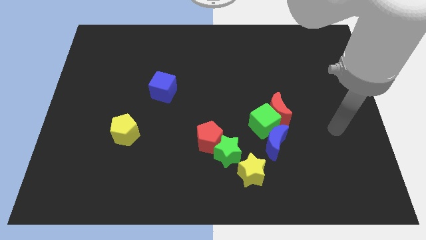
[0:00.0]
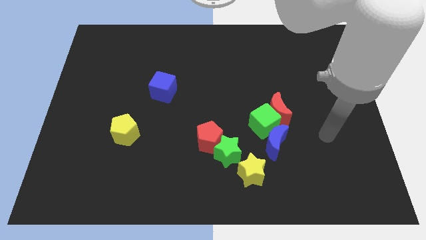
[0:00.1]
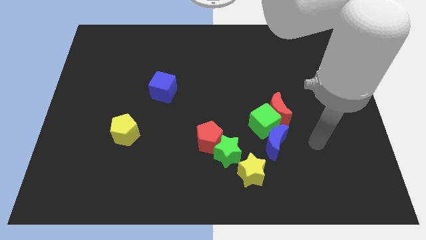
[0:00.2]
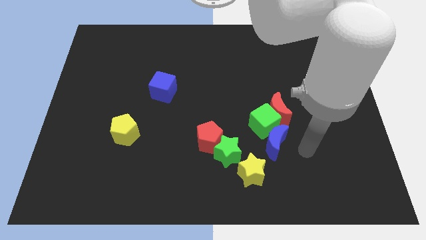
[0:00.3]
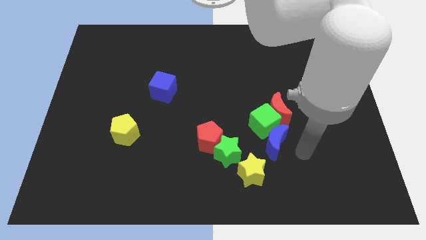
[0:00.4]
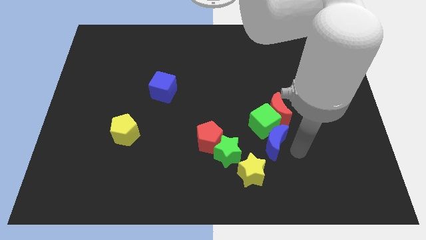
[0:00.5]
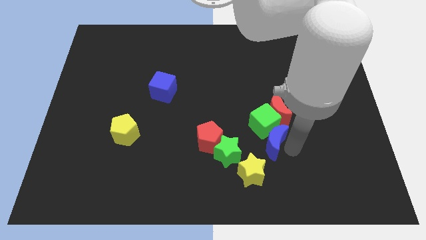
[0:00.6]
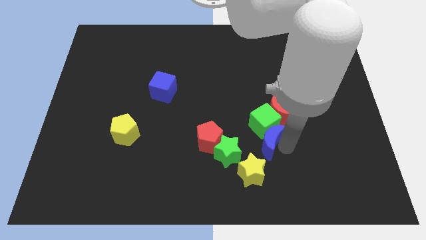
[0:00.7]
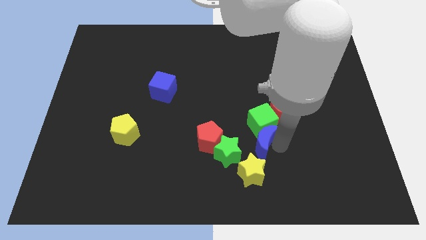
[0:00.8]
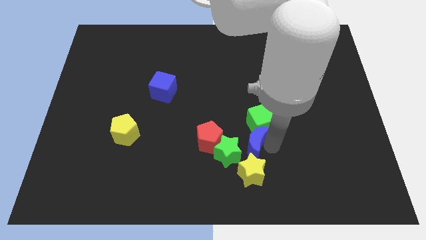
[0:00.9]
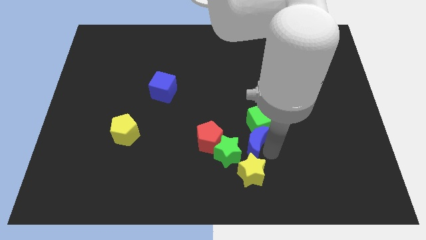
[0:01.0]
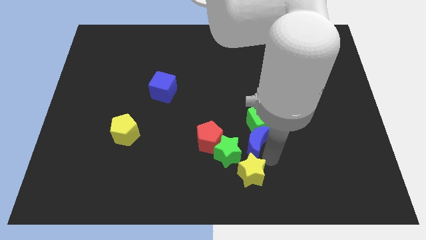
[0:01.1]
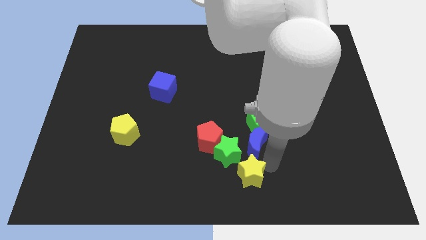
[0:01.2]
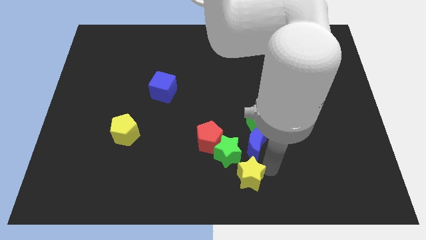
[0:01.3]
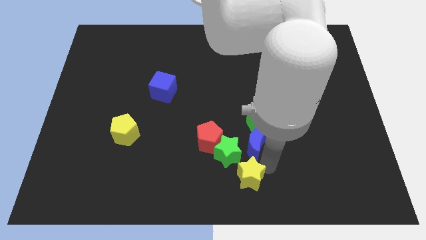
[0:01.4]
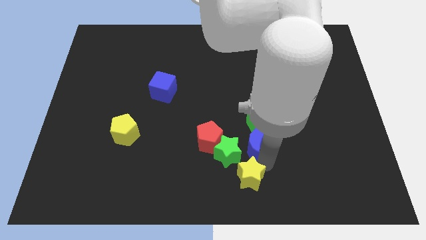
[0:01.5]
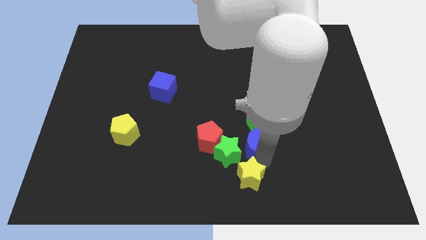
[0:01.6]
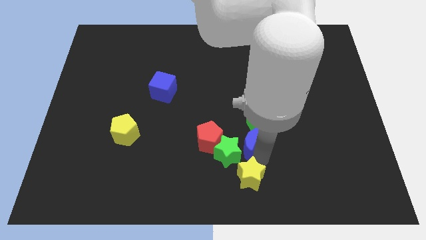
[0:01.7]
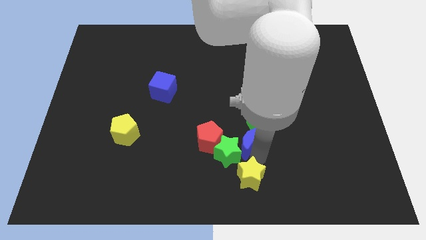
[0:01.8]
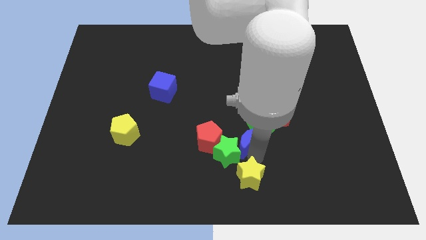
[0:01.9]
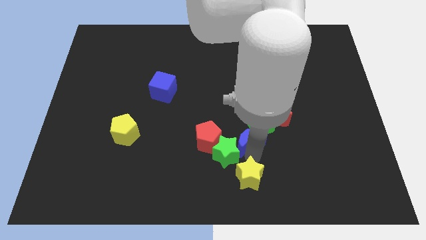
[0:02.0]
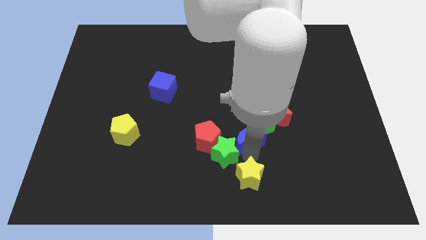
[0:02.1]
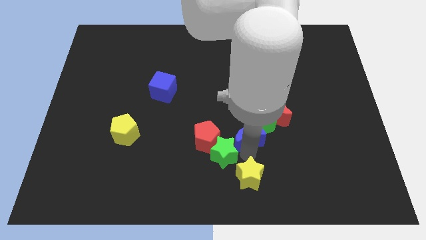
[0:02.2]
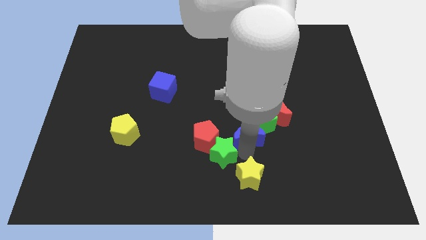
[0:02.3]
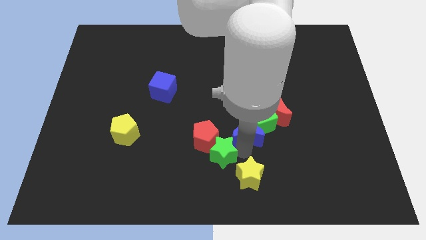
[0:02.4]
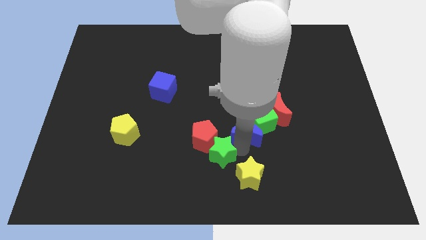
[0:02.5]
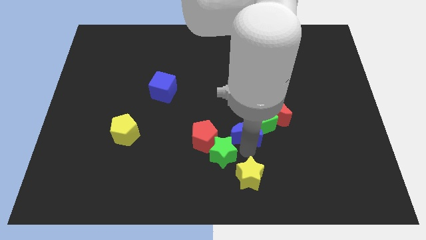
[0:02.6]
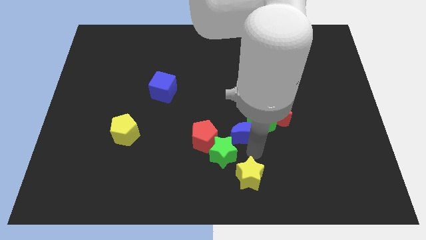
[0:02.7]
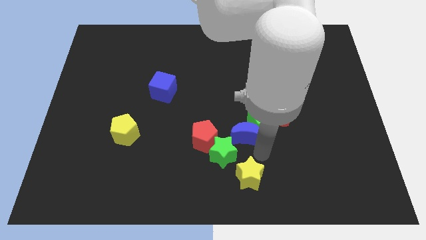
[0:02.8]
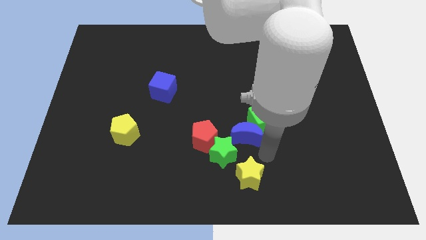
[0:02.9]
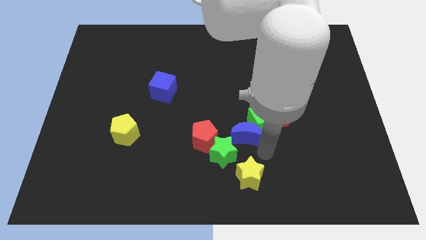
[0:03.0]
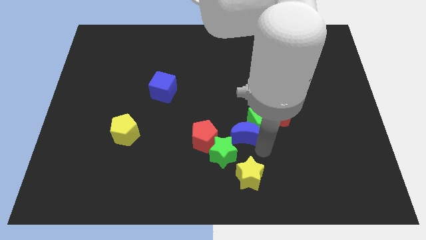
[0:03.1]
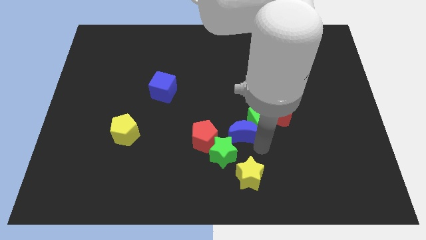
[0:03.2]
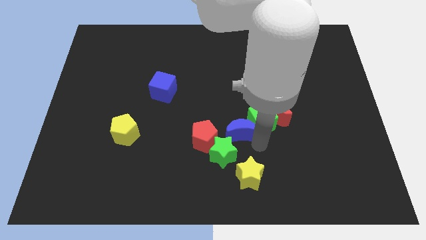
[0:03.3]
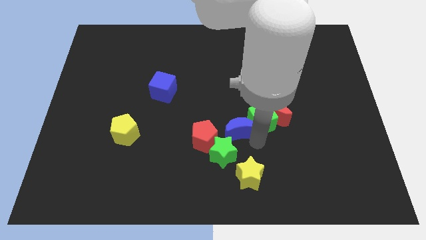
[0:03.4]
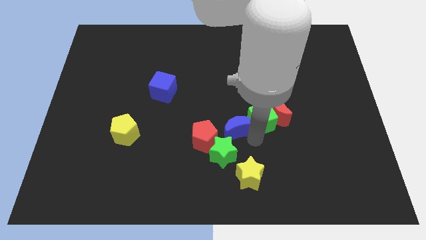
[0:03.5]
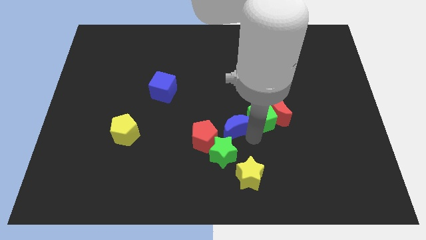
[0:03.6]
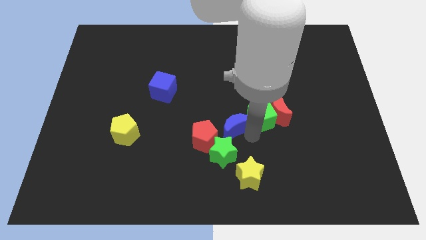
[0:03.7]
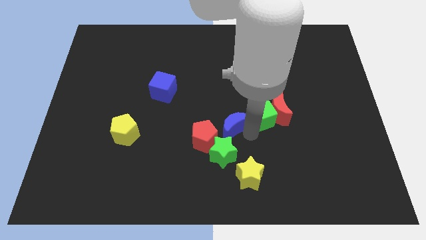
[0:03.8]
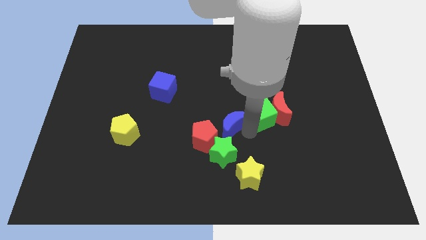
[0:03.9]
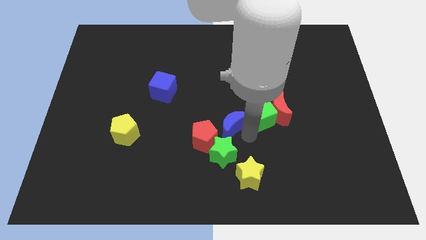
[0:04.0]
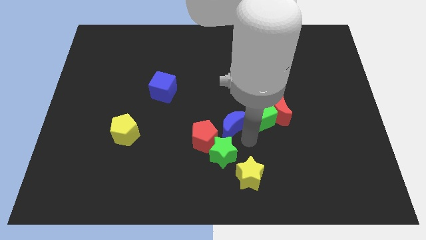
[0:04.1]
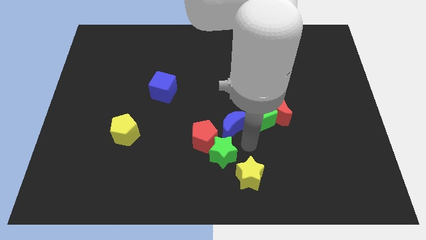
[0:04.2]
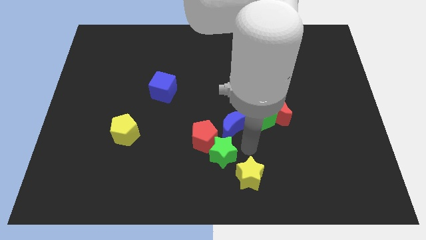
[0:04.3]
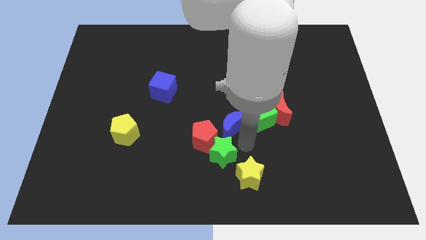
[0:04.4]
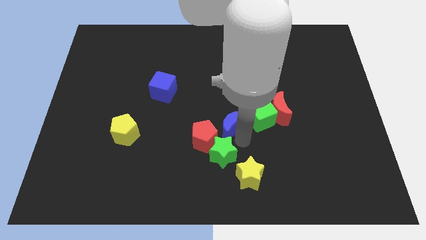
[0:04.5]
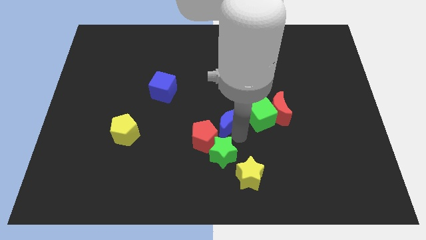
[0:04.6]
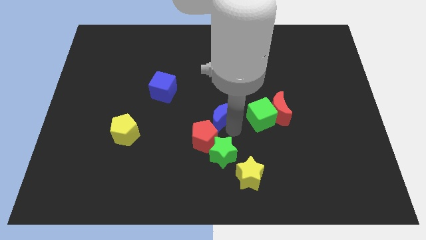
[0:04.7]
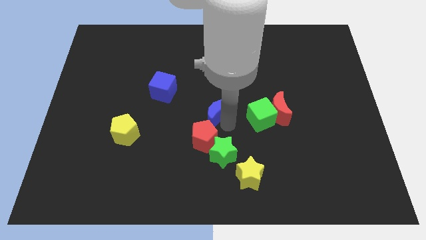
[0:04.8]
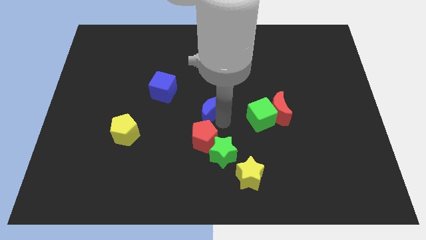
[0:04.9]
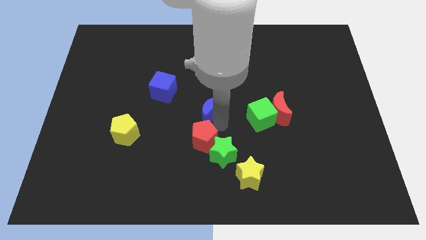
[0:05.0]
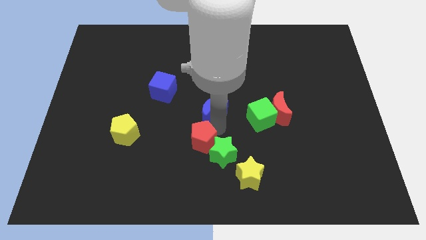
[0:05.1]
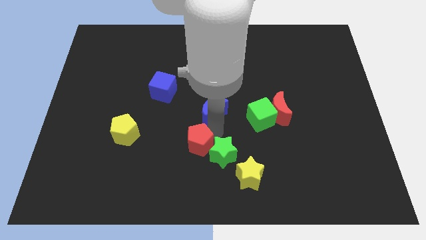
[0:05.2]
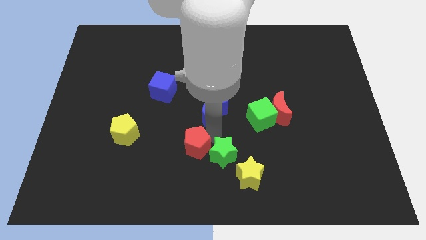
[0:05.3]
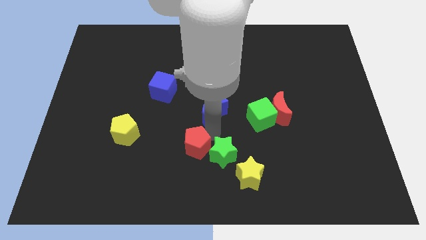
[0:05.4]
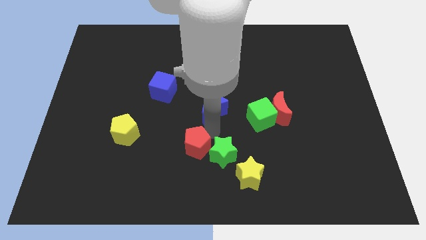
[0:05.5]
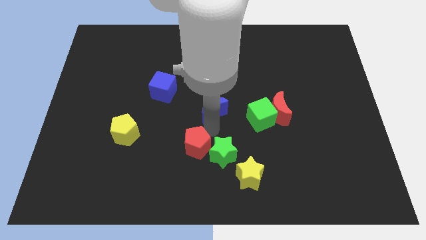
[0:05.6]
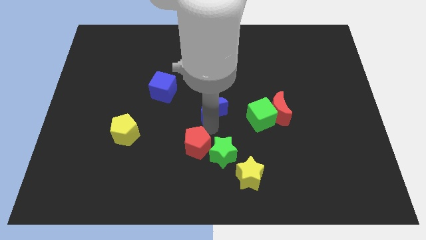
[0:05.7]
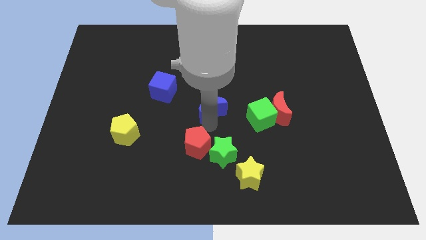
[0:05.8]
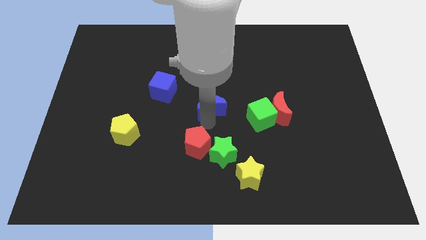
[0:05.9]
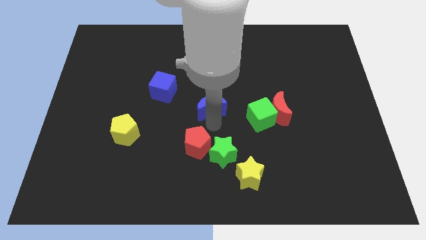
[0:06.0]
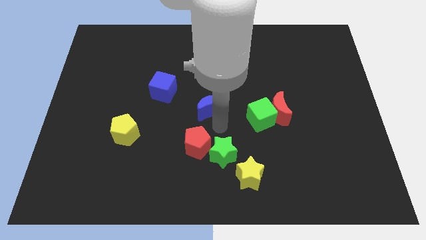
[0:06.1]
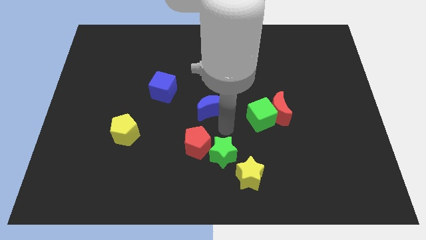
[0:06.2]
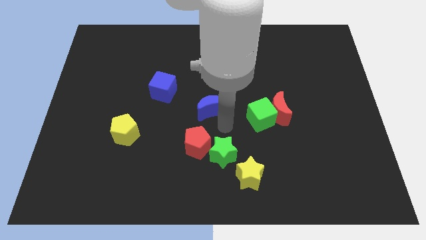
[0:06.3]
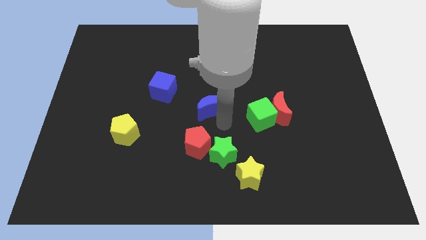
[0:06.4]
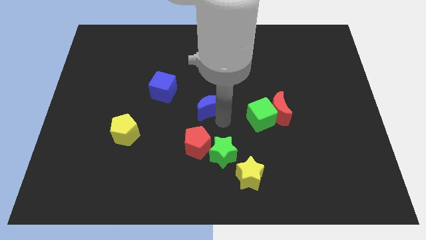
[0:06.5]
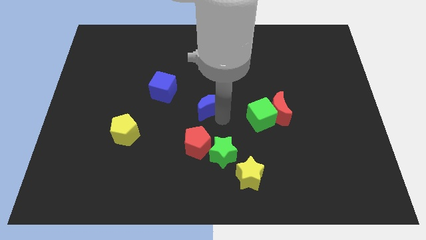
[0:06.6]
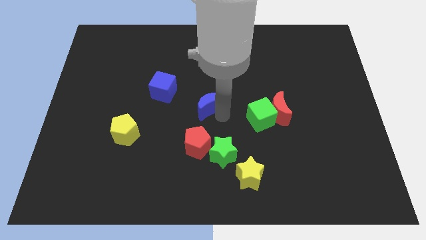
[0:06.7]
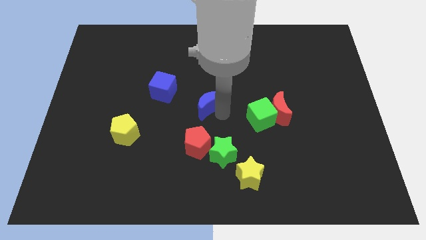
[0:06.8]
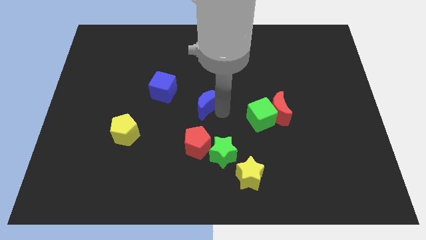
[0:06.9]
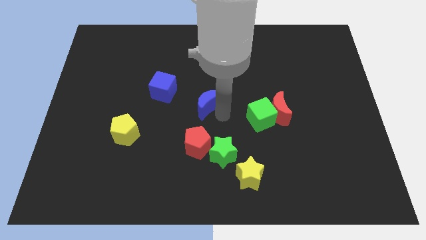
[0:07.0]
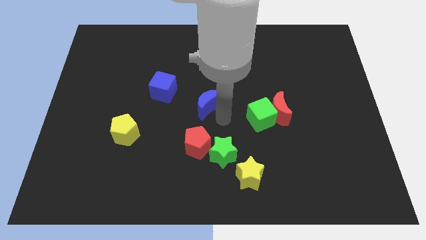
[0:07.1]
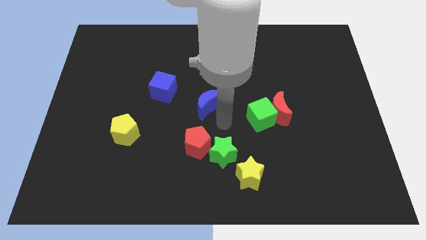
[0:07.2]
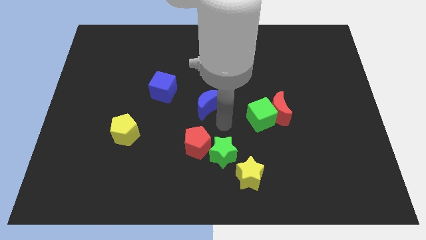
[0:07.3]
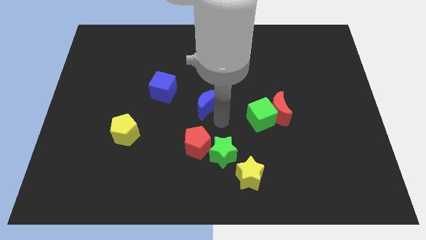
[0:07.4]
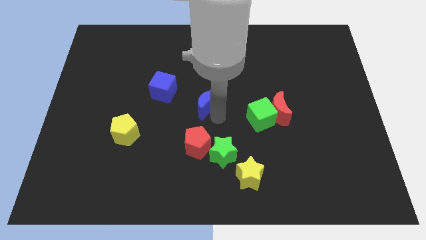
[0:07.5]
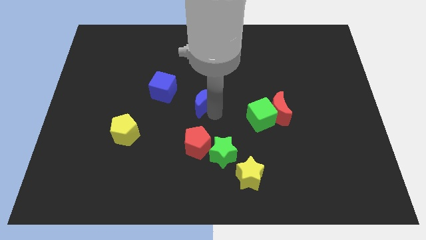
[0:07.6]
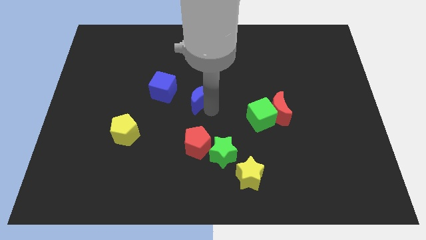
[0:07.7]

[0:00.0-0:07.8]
slide the blue moon diagonally up and to the left

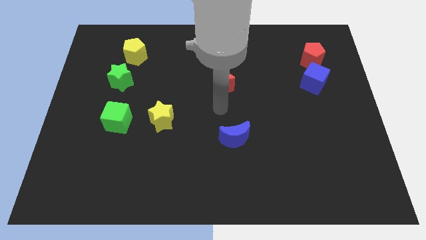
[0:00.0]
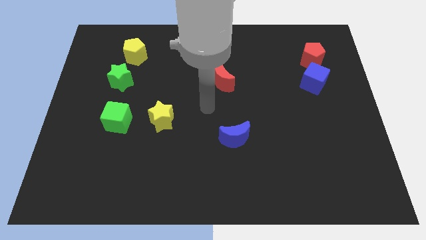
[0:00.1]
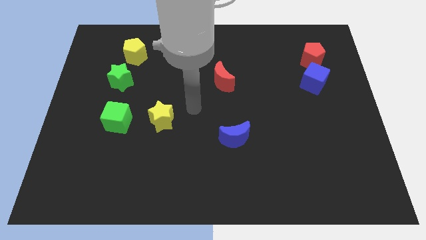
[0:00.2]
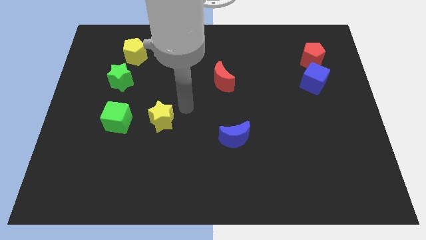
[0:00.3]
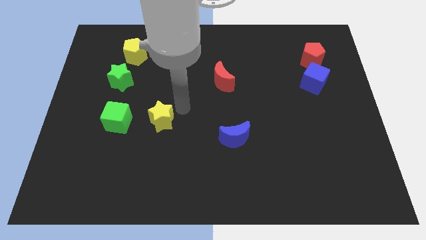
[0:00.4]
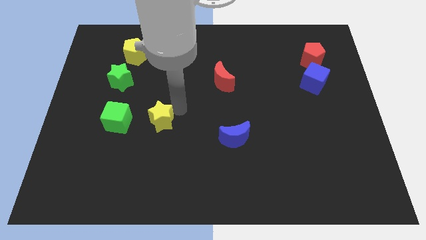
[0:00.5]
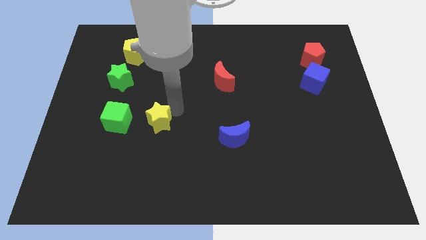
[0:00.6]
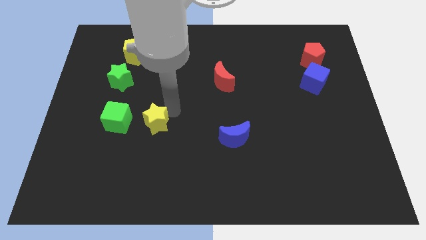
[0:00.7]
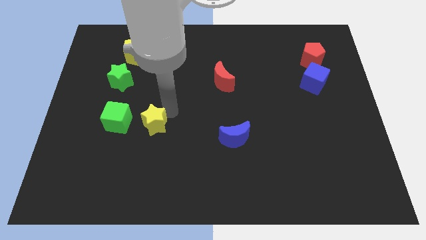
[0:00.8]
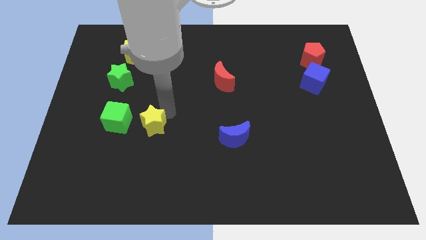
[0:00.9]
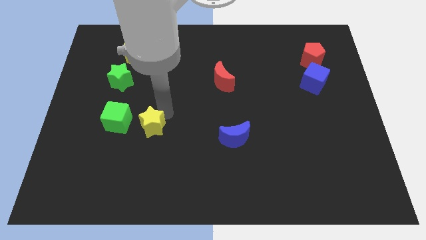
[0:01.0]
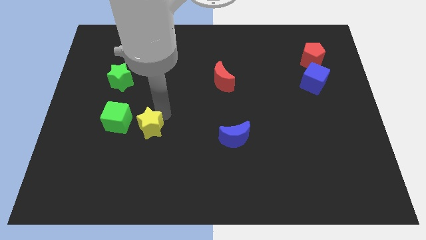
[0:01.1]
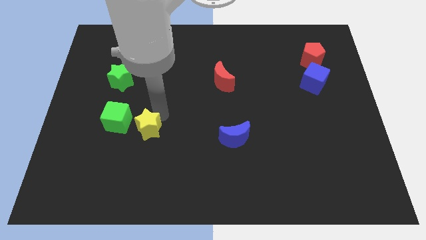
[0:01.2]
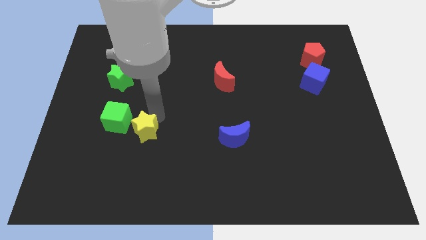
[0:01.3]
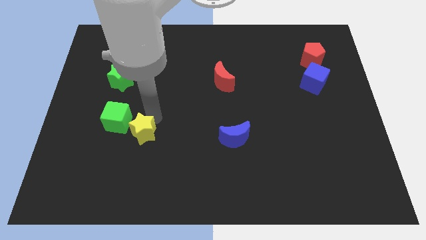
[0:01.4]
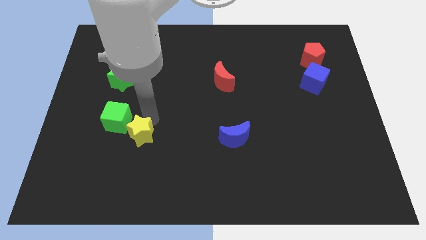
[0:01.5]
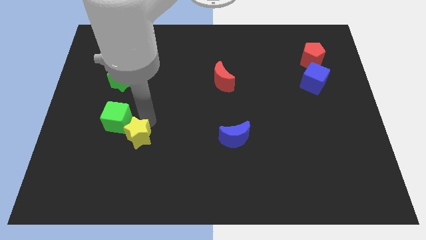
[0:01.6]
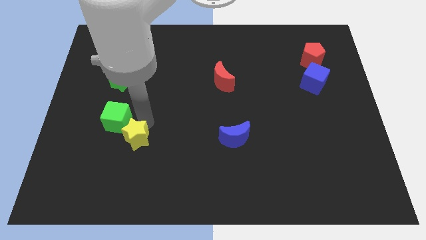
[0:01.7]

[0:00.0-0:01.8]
push the yellow star downwards and left a bit
